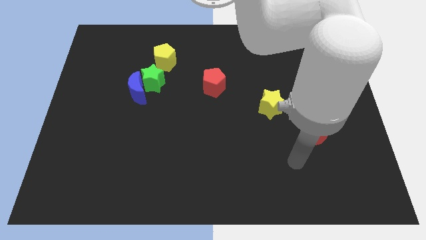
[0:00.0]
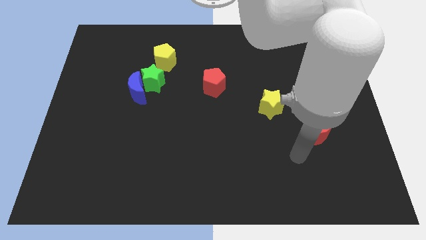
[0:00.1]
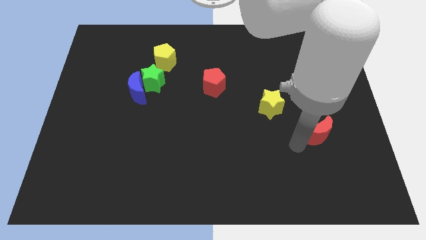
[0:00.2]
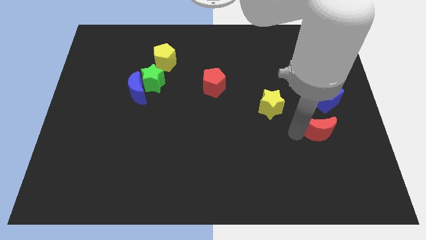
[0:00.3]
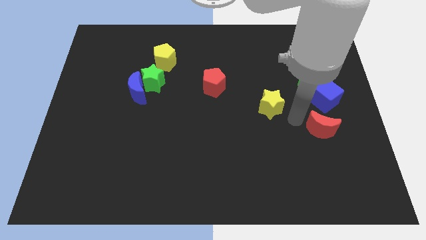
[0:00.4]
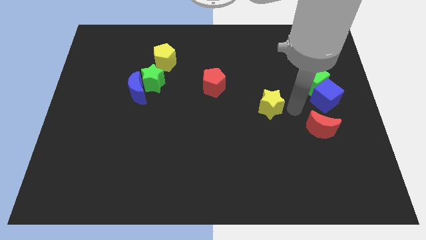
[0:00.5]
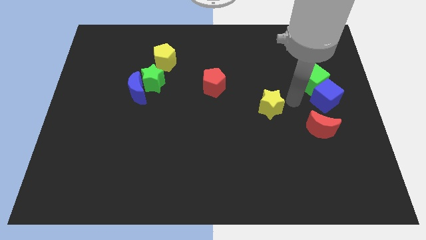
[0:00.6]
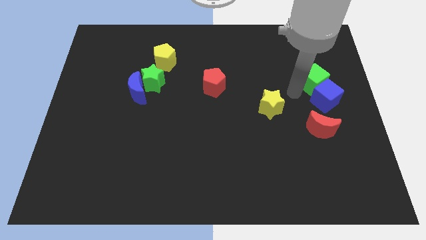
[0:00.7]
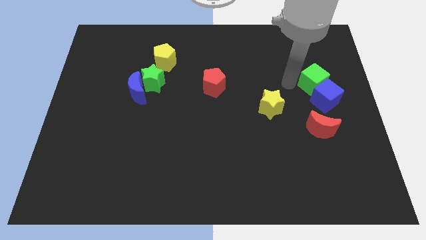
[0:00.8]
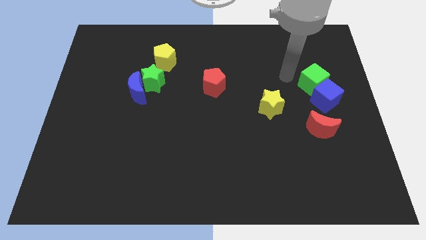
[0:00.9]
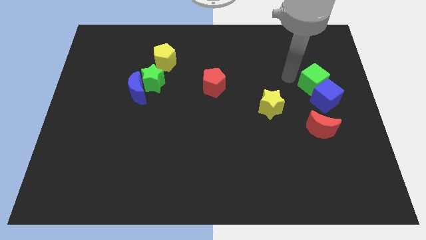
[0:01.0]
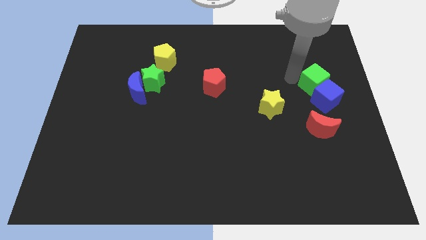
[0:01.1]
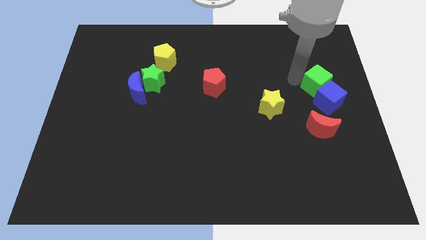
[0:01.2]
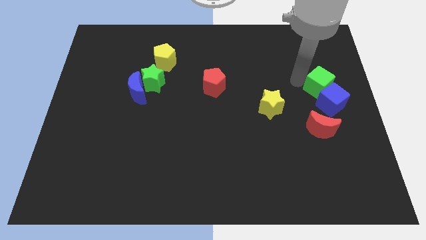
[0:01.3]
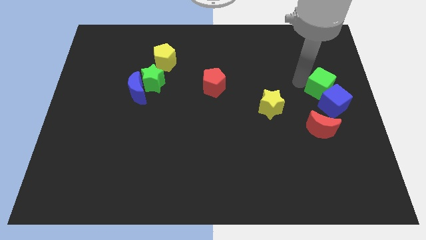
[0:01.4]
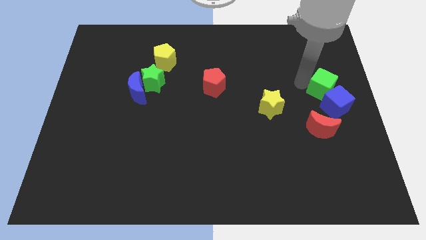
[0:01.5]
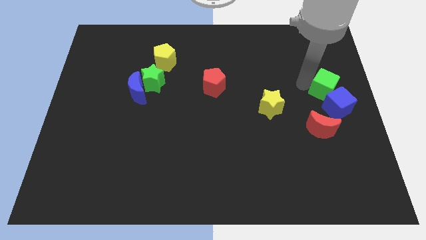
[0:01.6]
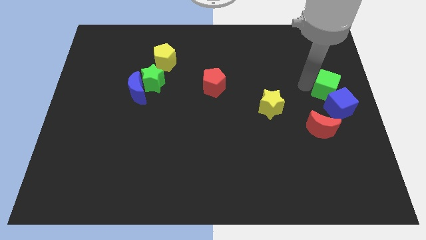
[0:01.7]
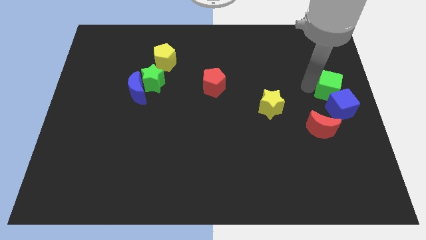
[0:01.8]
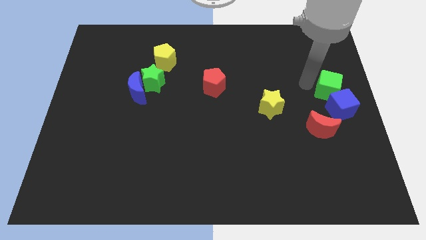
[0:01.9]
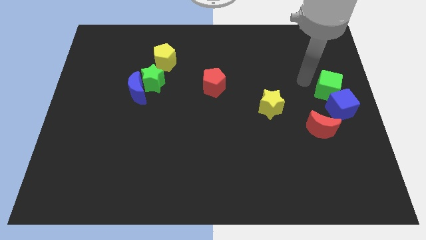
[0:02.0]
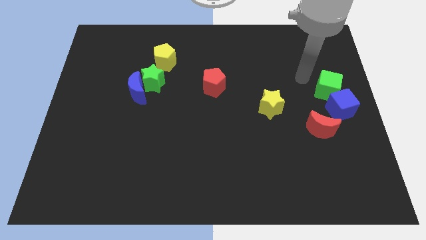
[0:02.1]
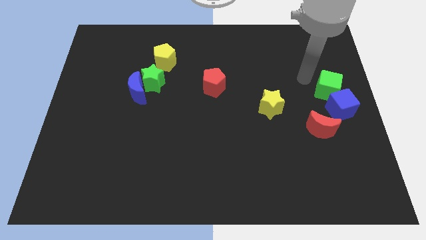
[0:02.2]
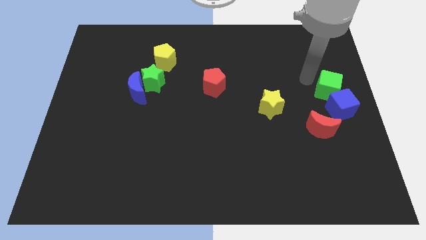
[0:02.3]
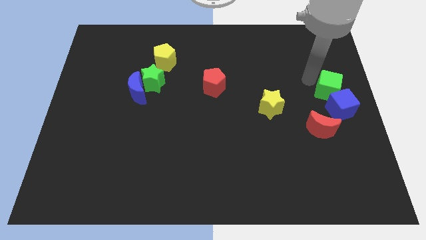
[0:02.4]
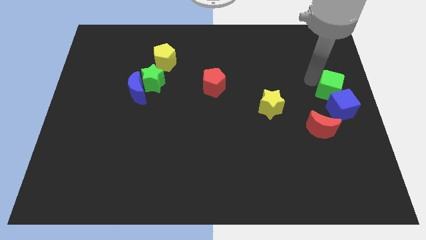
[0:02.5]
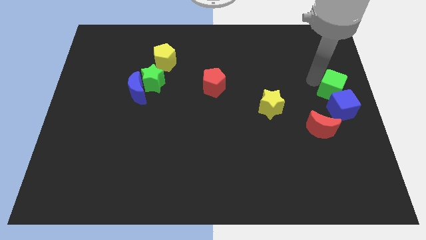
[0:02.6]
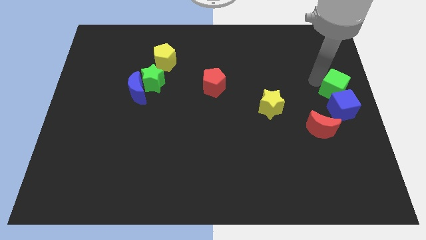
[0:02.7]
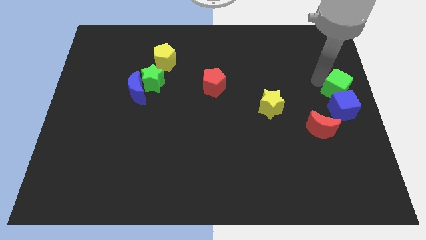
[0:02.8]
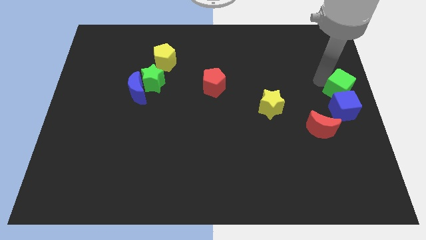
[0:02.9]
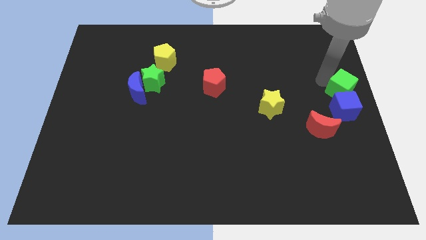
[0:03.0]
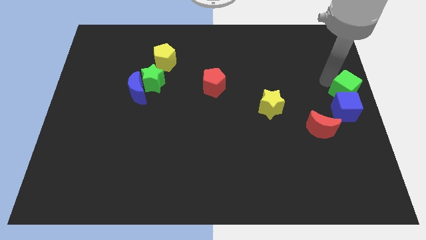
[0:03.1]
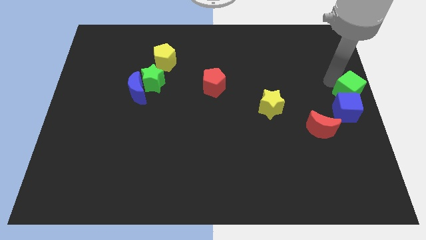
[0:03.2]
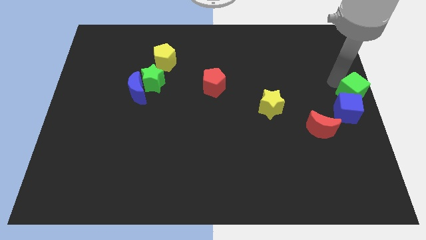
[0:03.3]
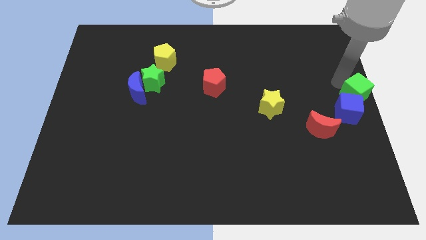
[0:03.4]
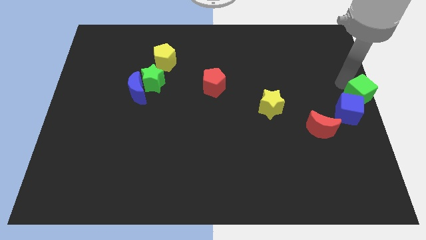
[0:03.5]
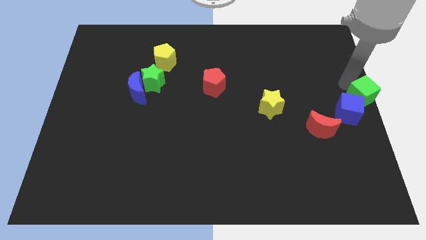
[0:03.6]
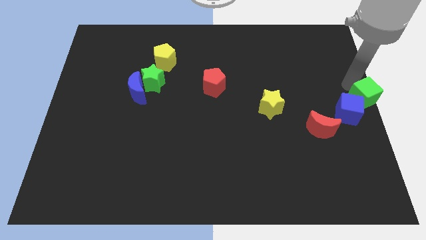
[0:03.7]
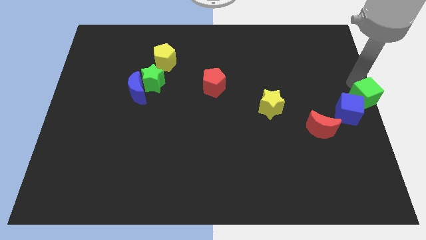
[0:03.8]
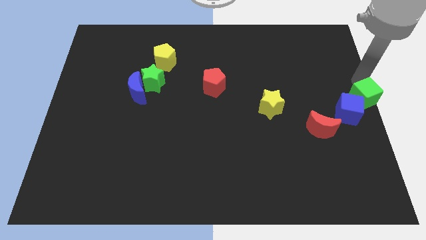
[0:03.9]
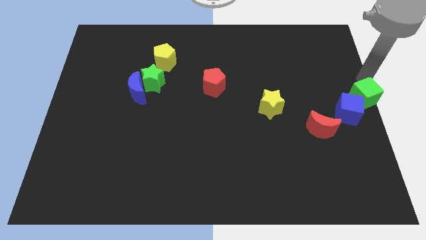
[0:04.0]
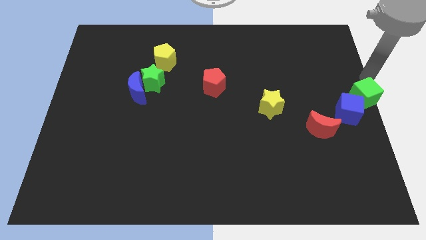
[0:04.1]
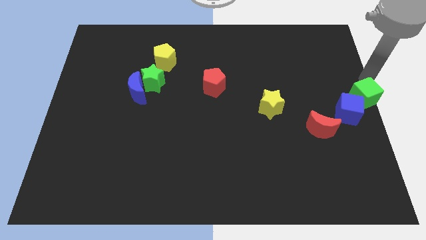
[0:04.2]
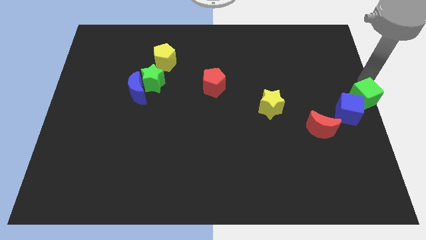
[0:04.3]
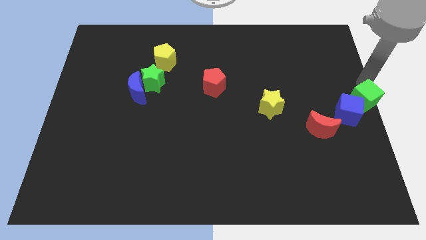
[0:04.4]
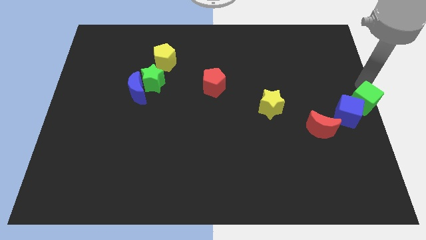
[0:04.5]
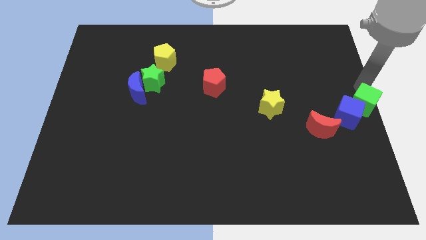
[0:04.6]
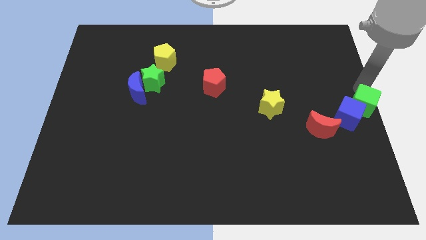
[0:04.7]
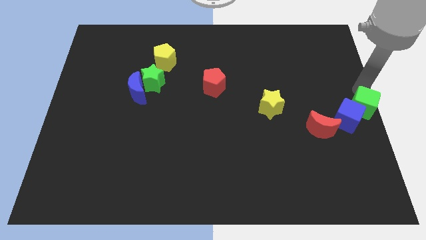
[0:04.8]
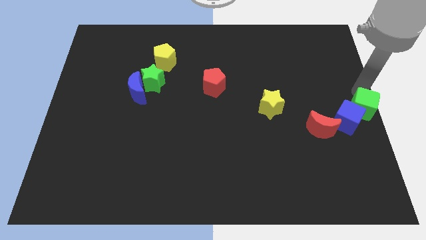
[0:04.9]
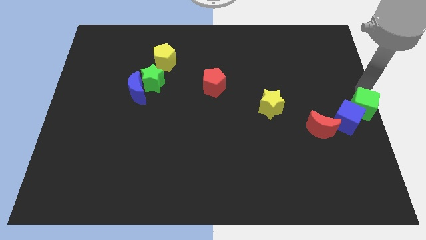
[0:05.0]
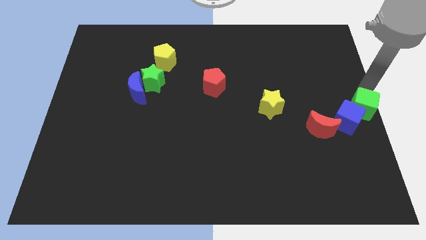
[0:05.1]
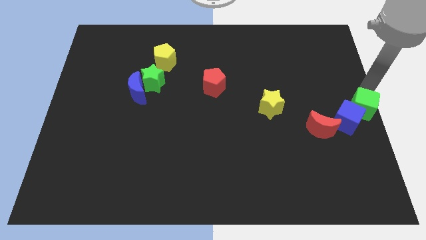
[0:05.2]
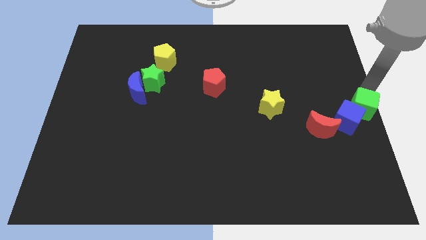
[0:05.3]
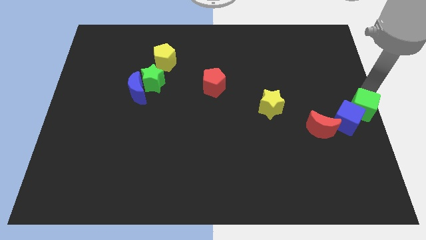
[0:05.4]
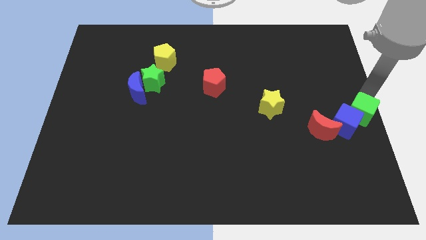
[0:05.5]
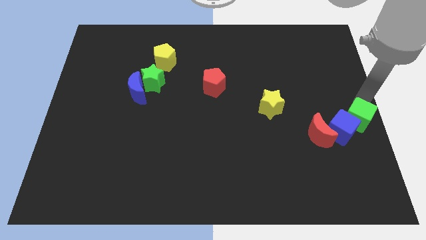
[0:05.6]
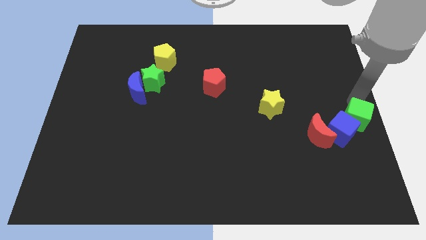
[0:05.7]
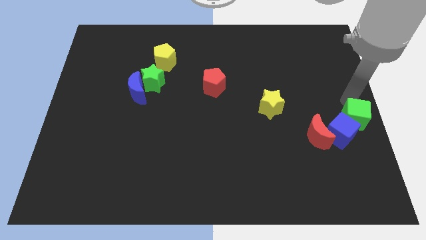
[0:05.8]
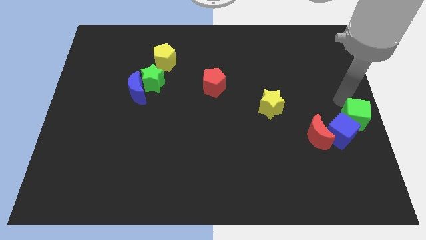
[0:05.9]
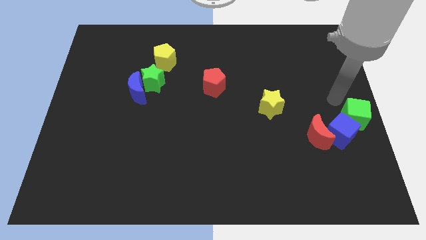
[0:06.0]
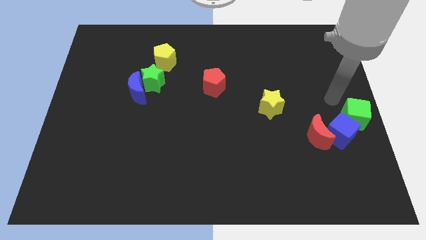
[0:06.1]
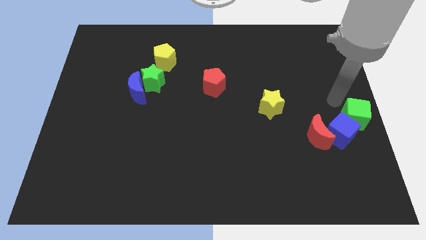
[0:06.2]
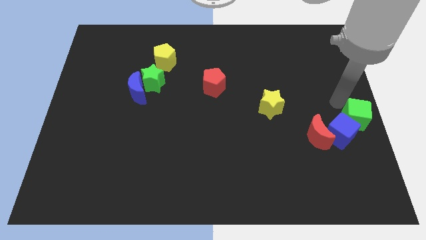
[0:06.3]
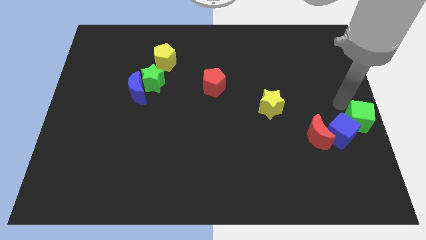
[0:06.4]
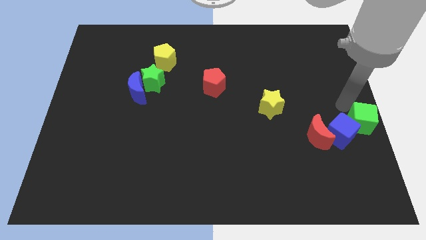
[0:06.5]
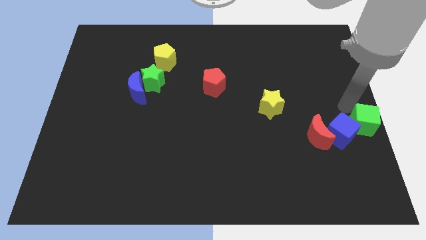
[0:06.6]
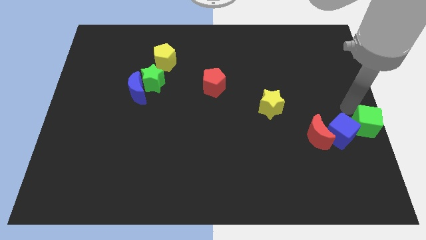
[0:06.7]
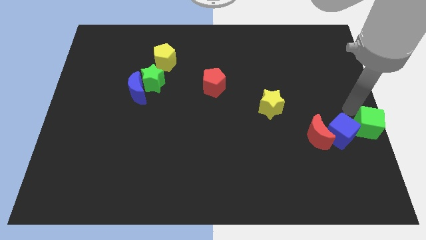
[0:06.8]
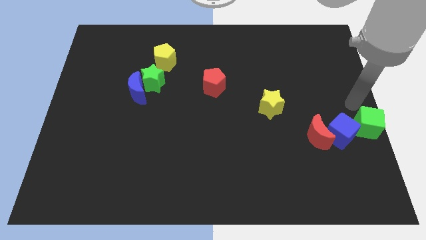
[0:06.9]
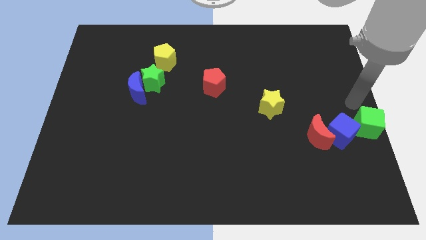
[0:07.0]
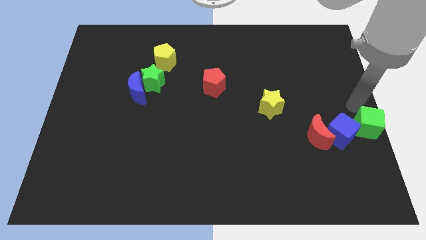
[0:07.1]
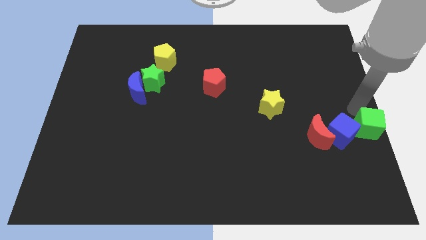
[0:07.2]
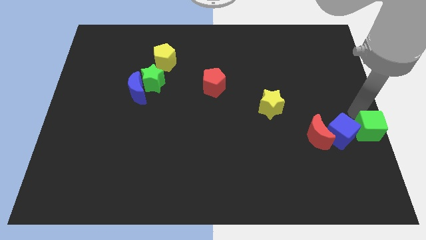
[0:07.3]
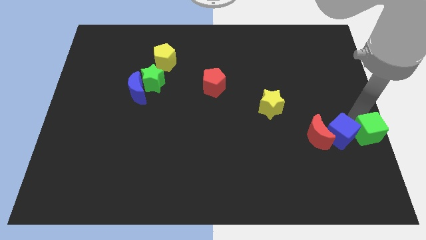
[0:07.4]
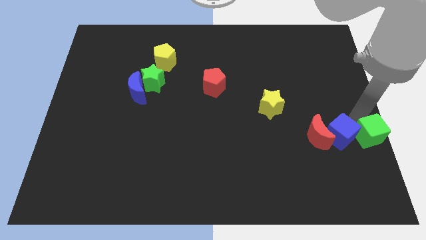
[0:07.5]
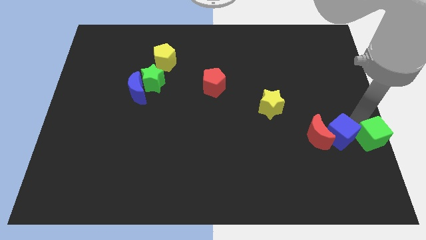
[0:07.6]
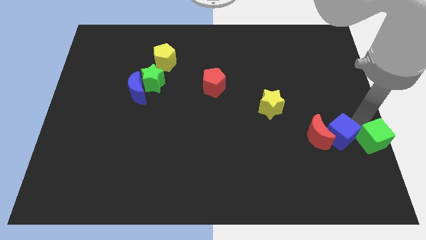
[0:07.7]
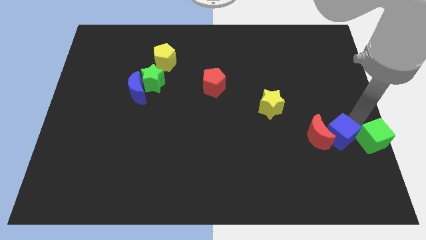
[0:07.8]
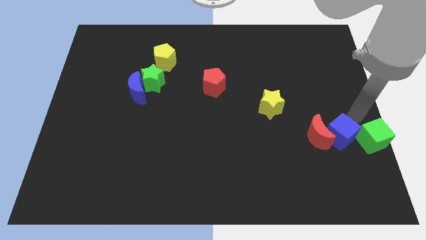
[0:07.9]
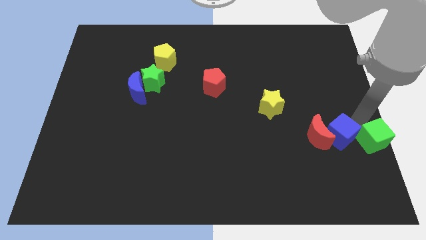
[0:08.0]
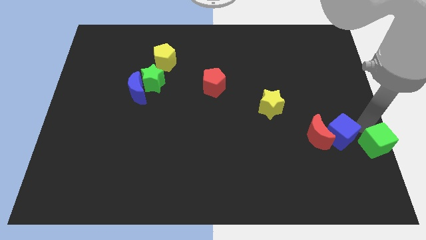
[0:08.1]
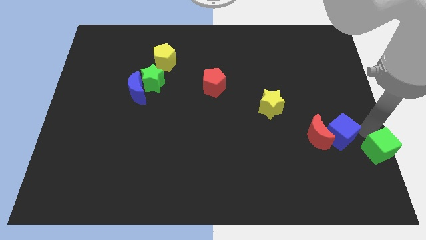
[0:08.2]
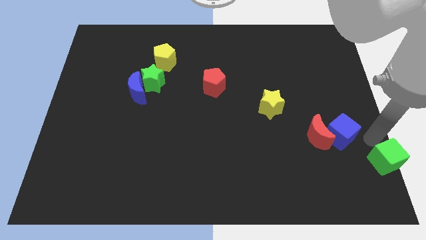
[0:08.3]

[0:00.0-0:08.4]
push the green cube to the lower right corner
